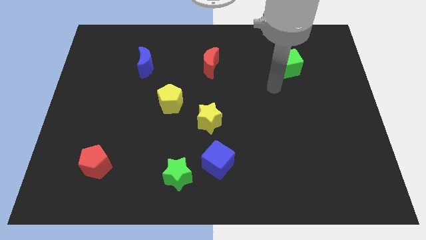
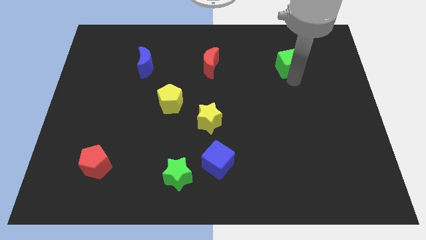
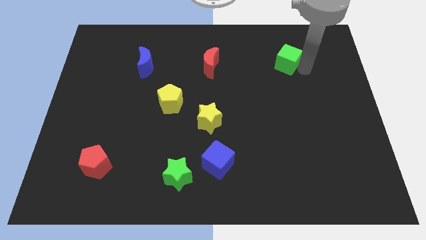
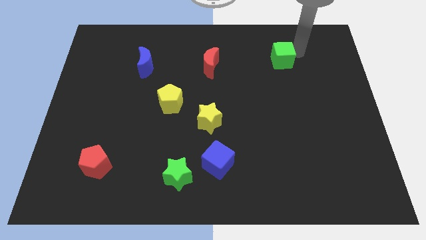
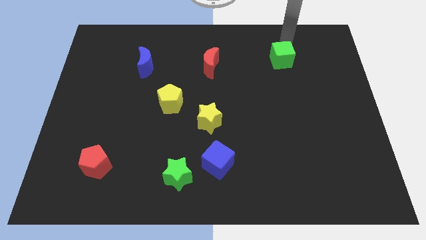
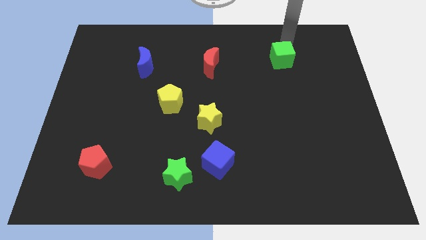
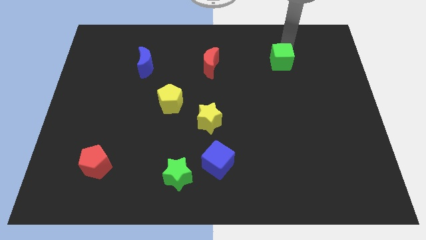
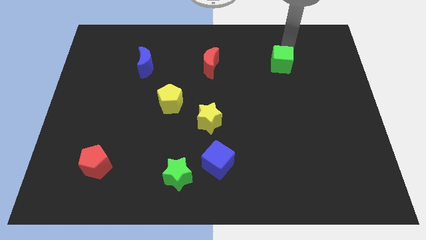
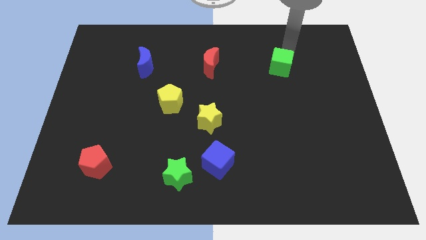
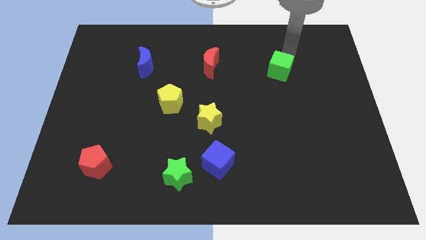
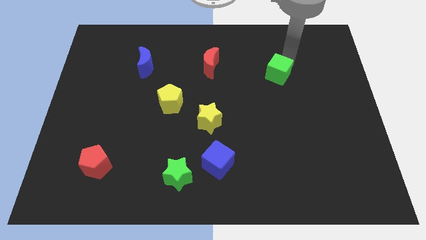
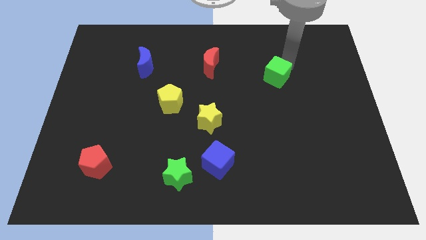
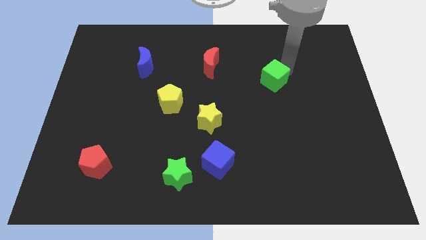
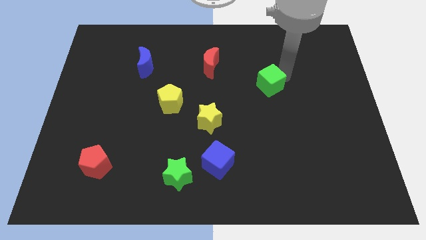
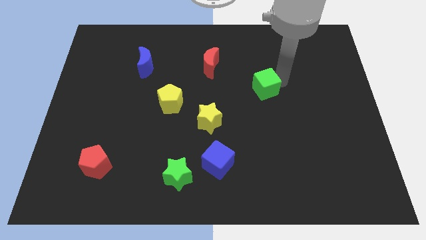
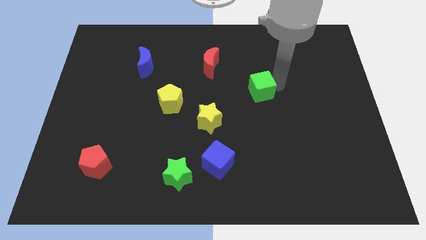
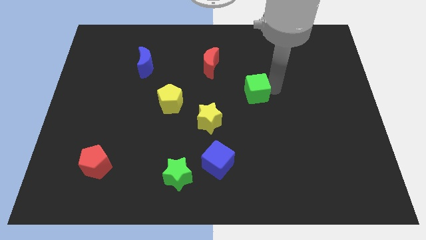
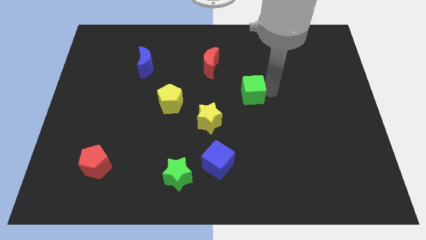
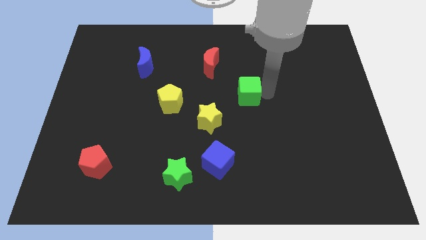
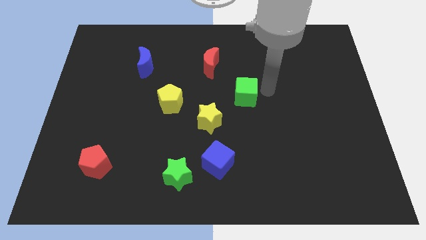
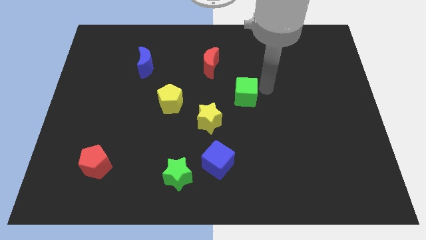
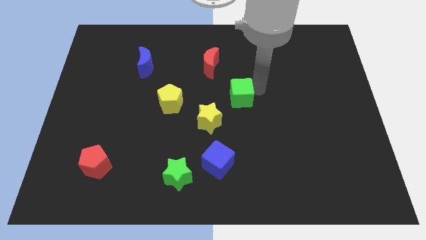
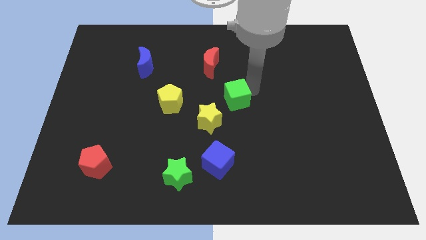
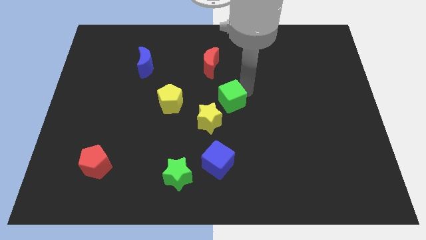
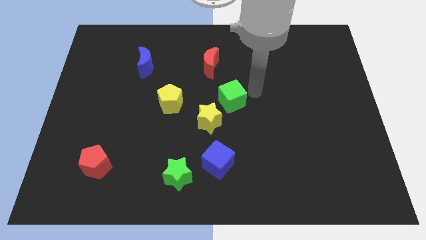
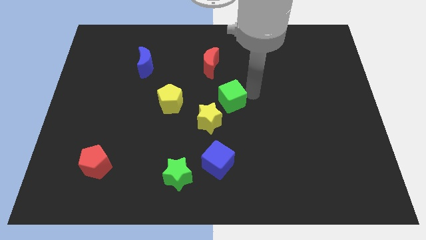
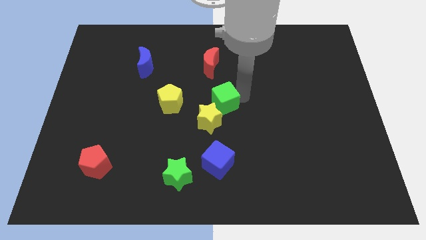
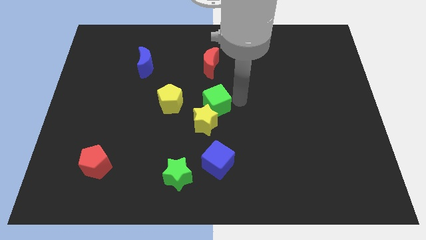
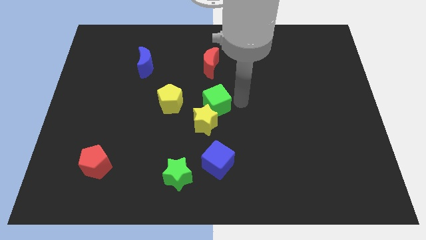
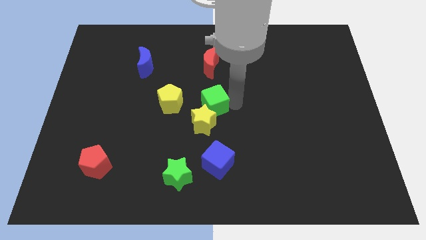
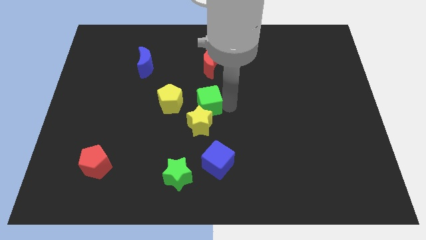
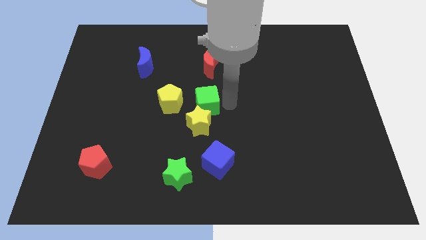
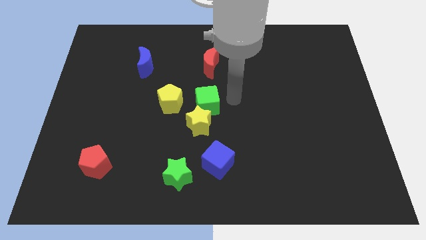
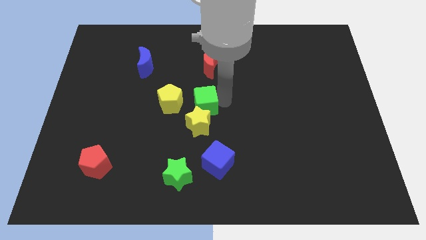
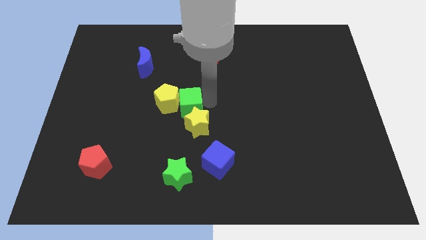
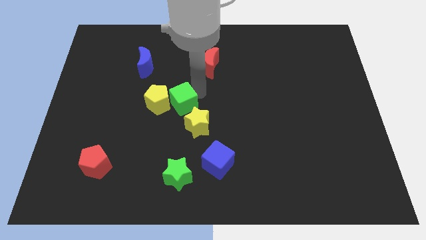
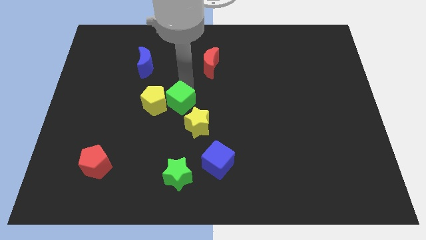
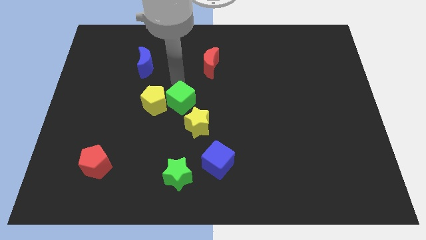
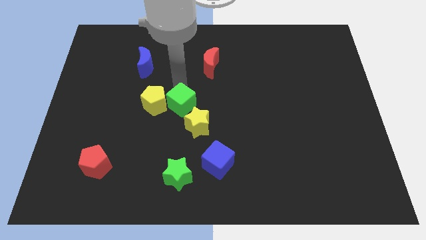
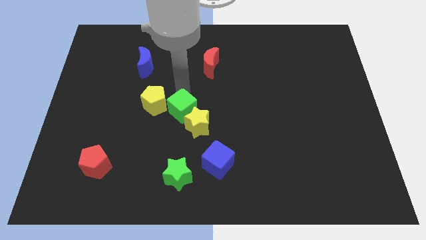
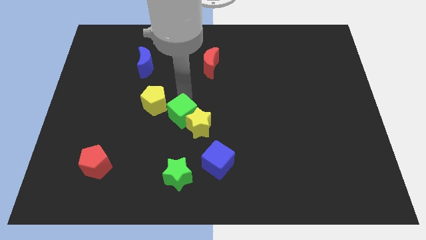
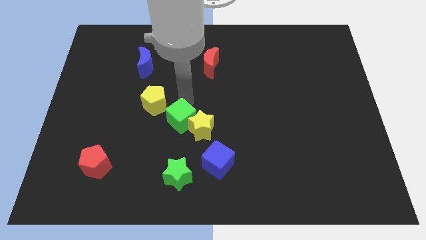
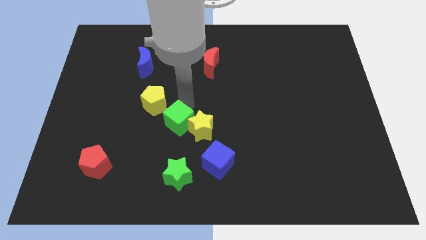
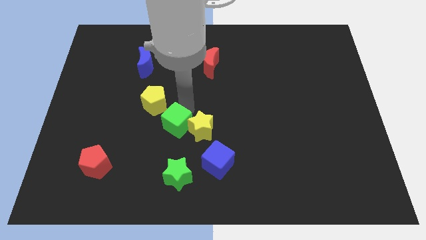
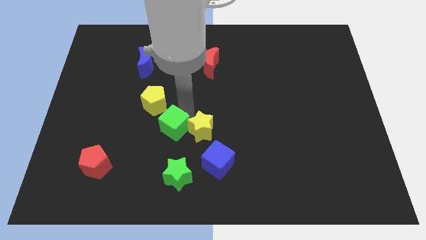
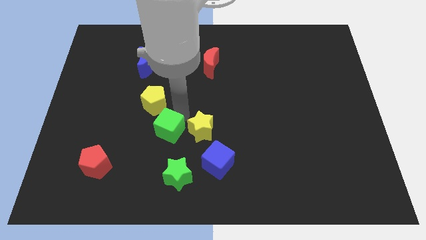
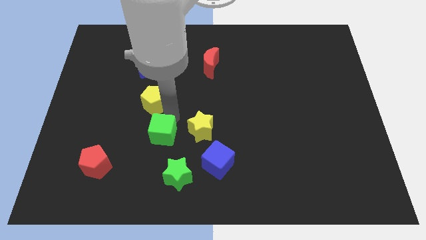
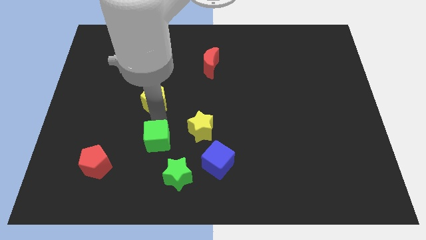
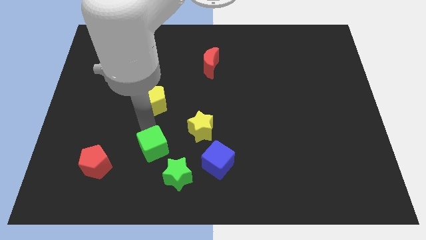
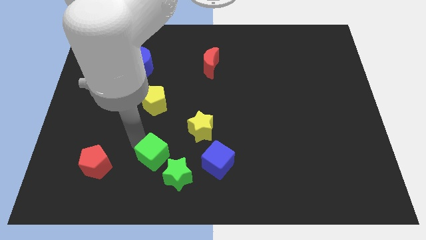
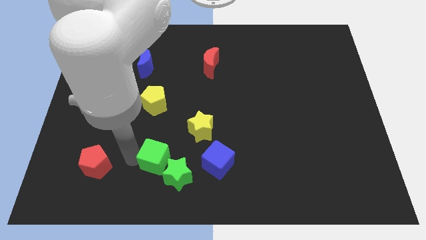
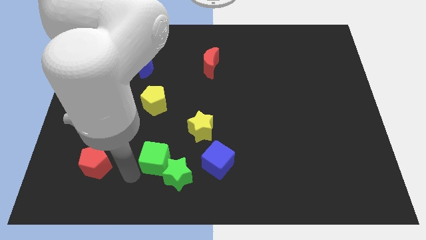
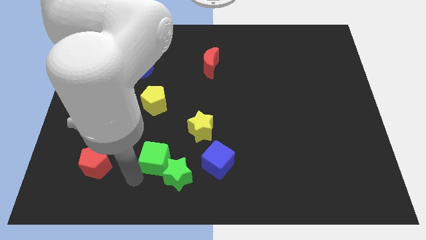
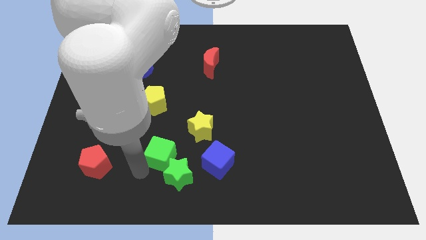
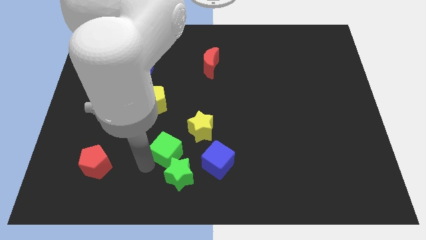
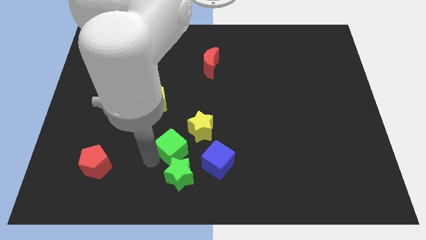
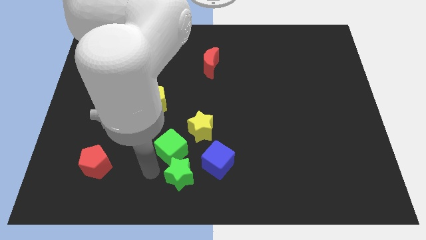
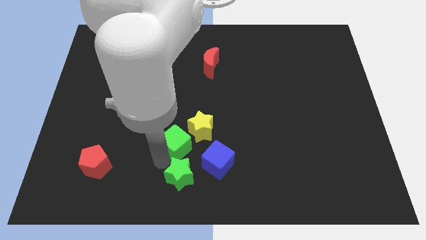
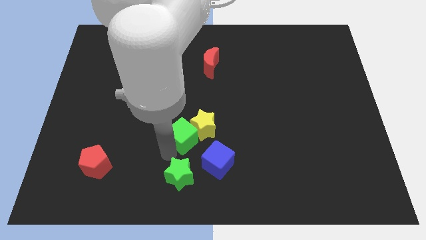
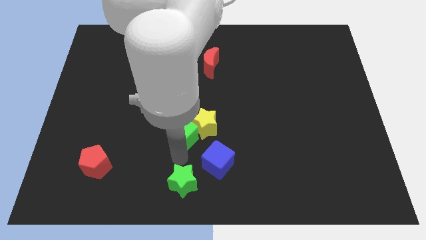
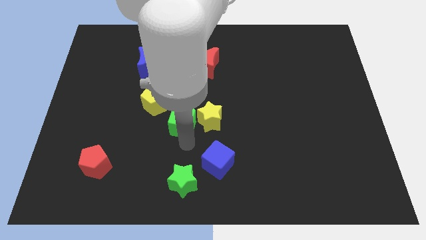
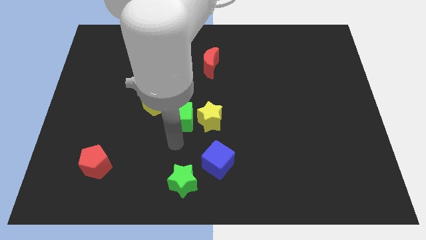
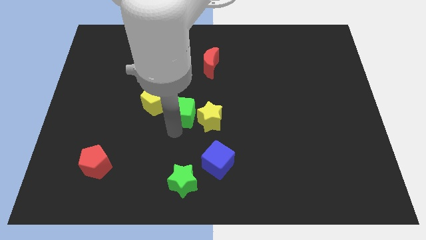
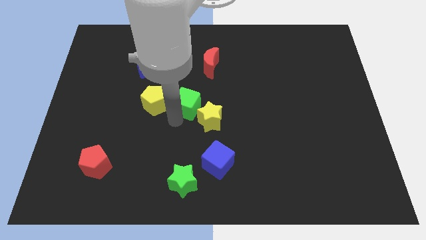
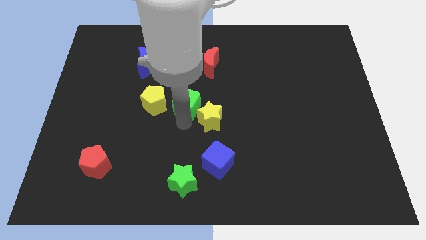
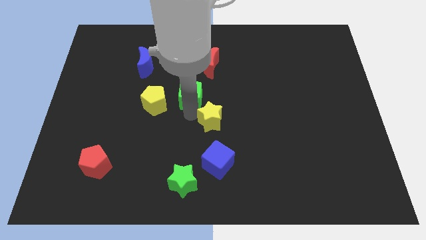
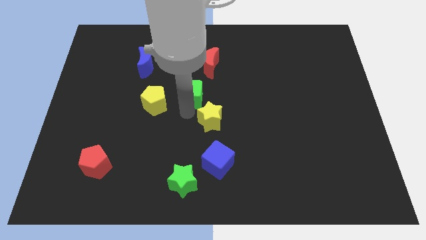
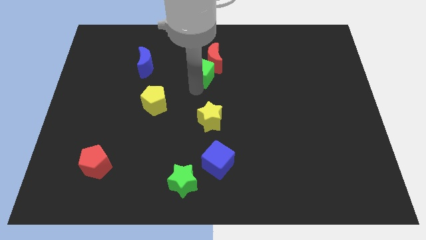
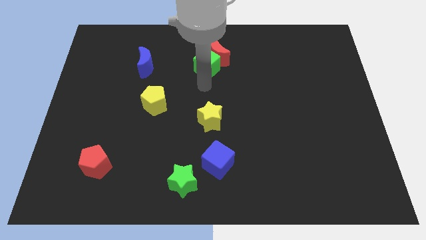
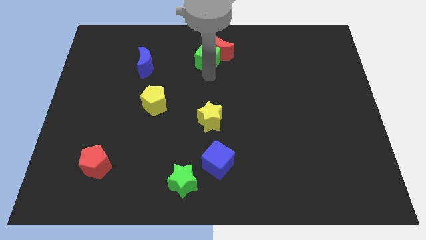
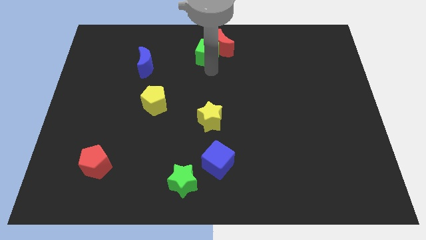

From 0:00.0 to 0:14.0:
put the green cube to the top

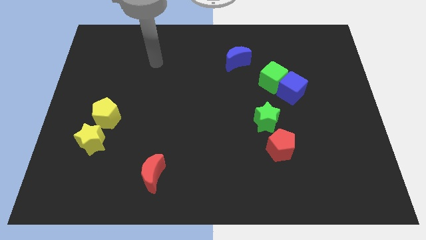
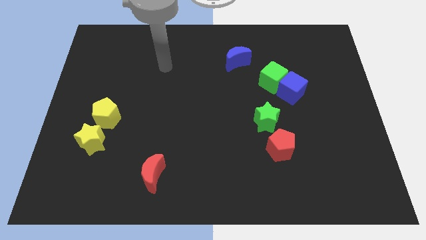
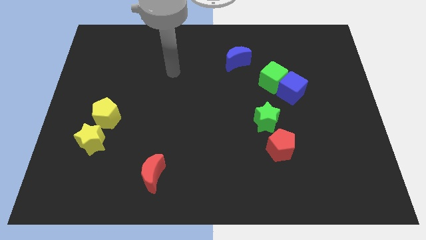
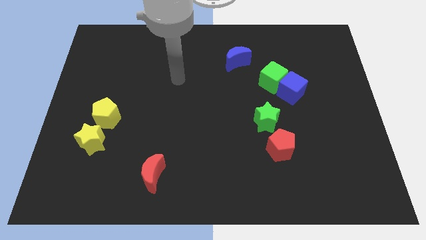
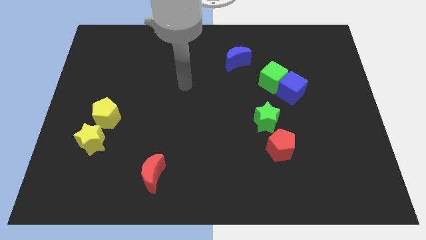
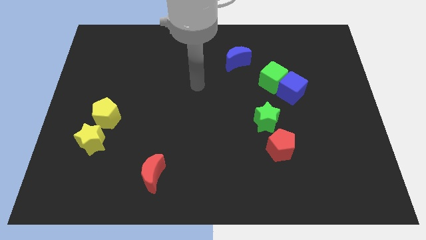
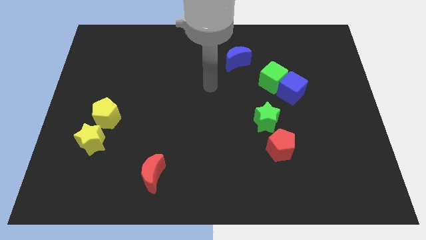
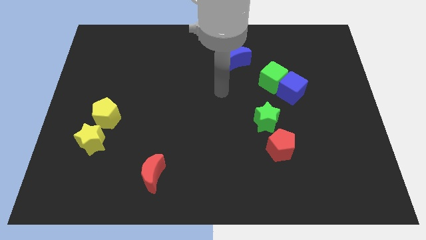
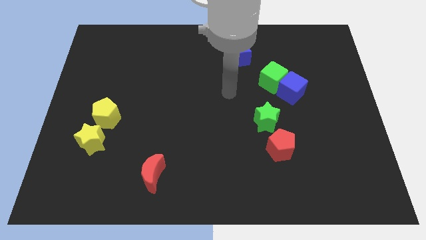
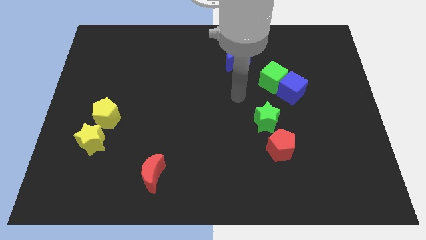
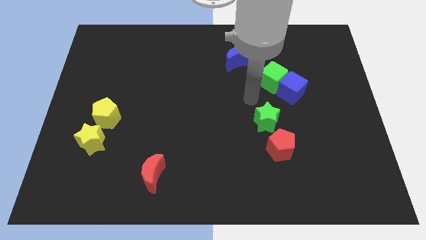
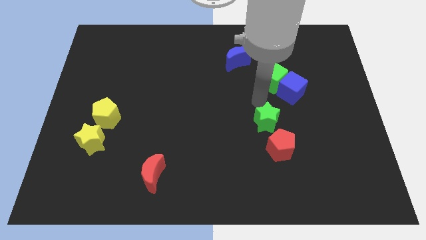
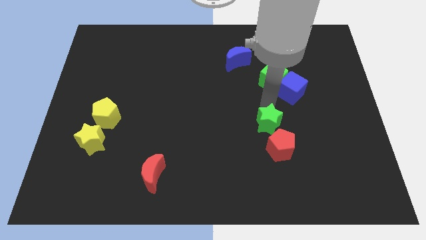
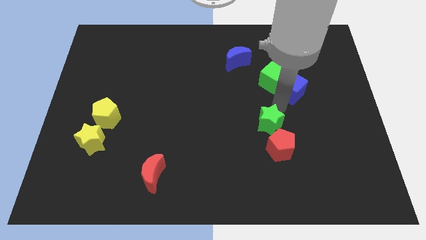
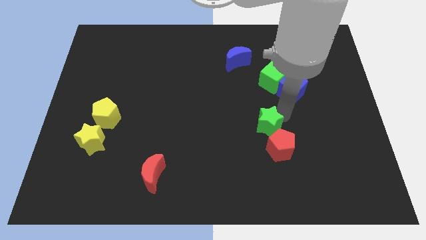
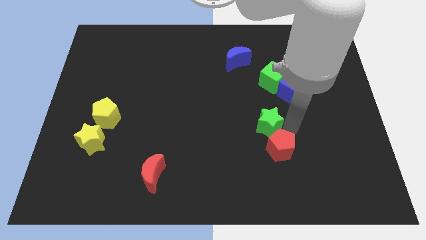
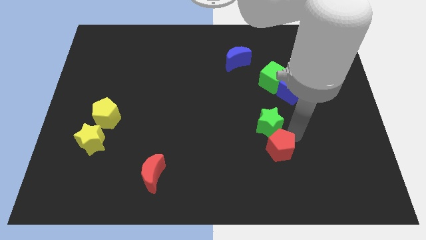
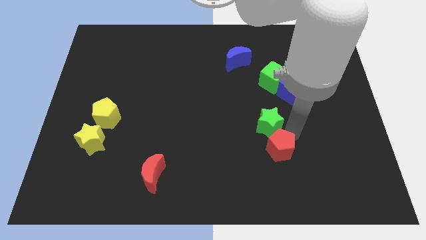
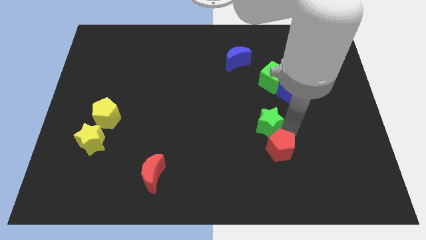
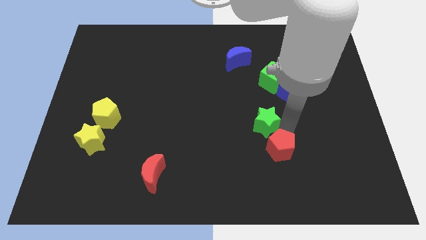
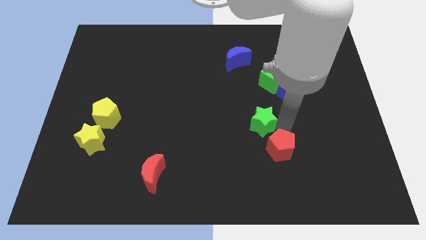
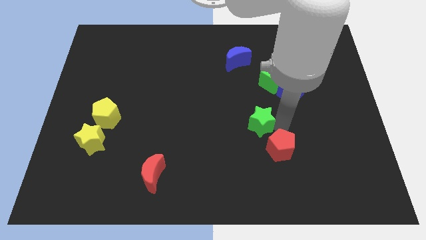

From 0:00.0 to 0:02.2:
slide the green star to the center
